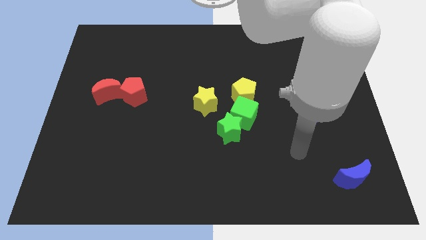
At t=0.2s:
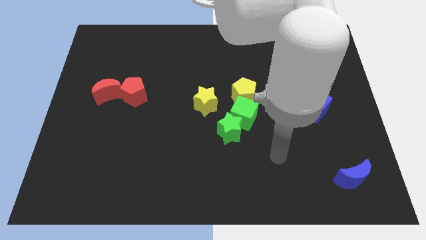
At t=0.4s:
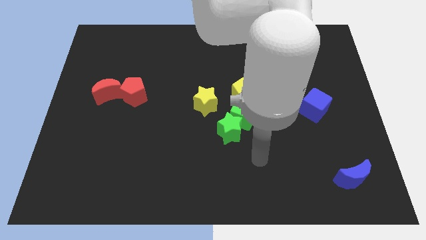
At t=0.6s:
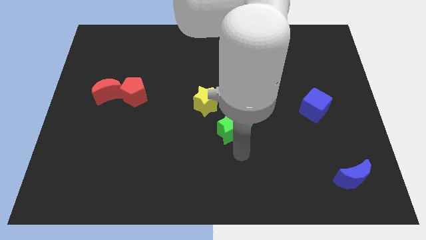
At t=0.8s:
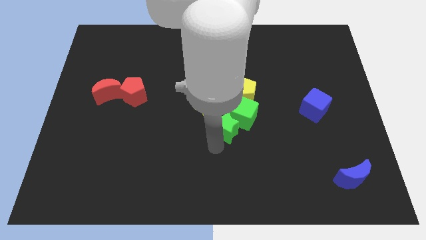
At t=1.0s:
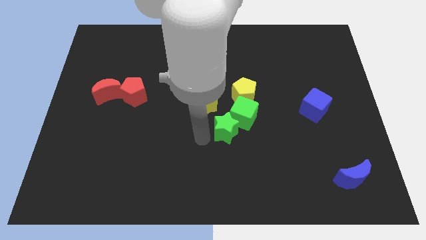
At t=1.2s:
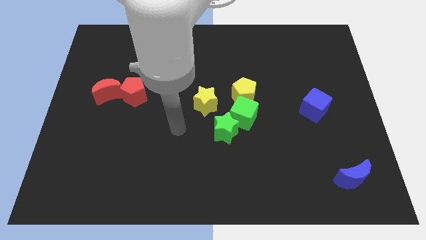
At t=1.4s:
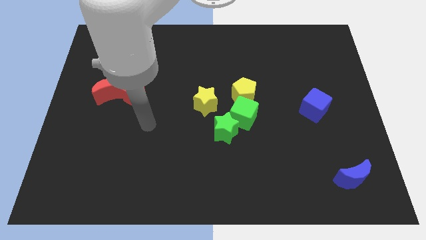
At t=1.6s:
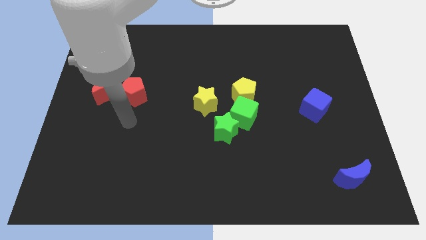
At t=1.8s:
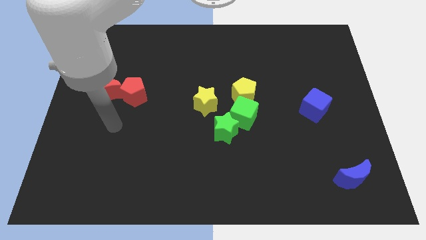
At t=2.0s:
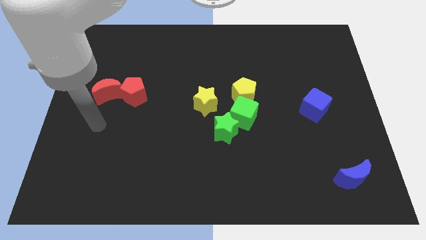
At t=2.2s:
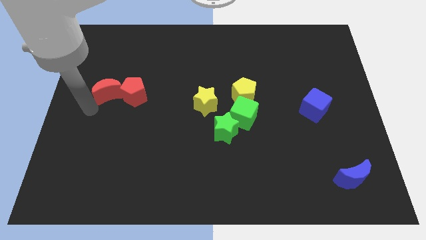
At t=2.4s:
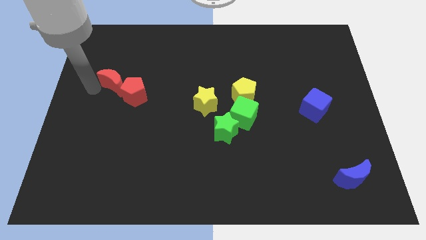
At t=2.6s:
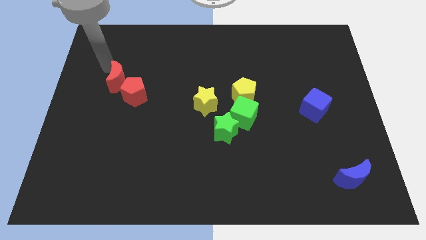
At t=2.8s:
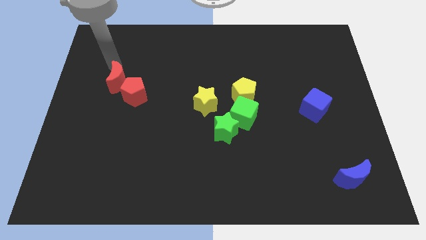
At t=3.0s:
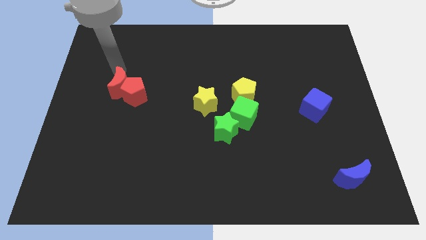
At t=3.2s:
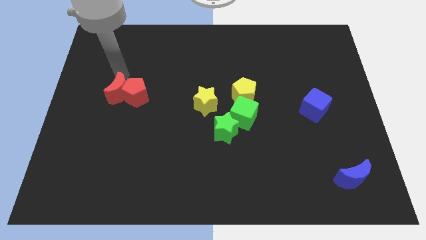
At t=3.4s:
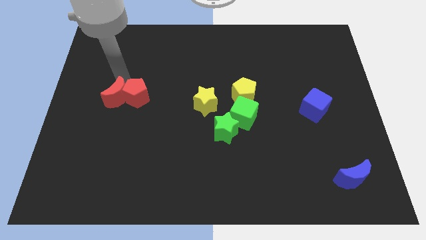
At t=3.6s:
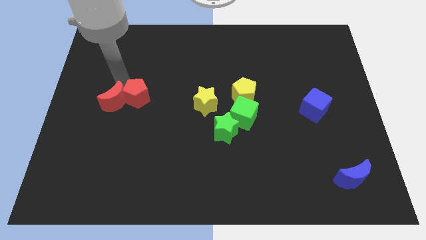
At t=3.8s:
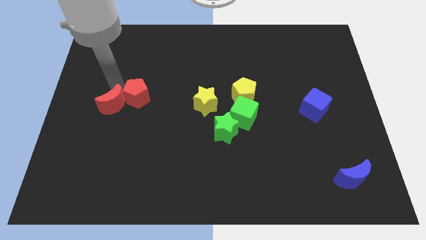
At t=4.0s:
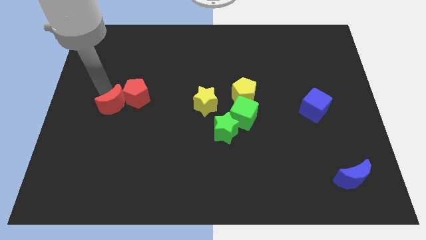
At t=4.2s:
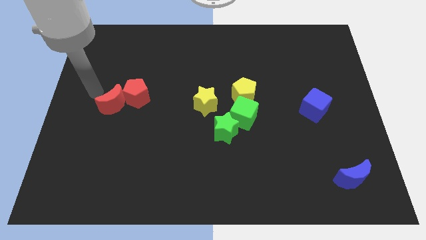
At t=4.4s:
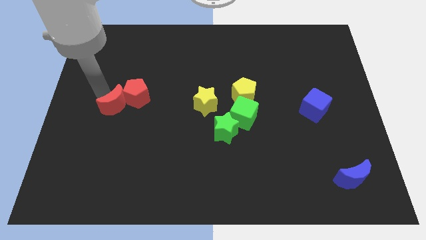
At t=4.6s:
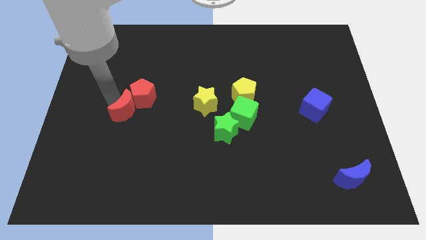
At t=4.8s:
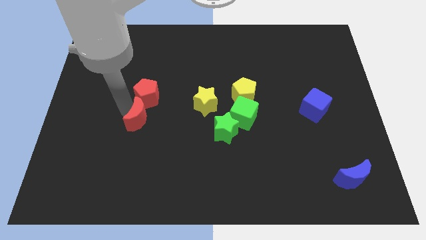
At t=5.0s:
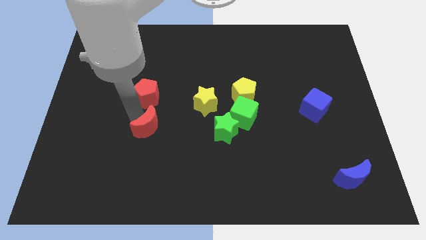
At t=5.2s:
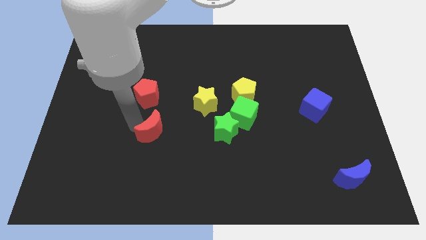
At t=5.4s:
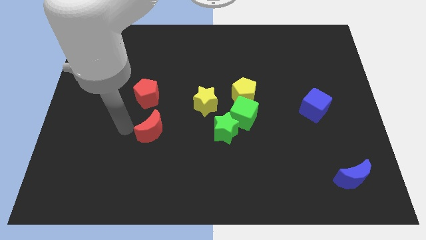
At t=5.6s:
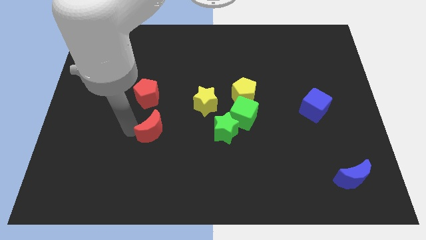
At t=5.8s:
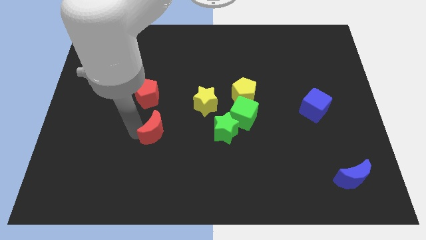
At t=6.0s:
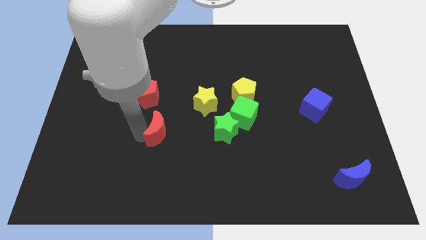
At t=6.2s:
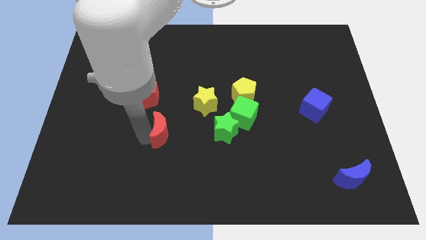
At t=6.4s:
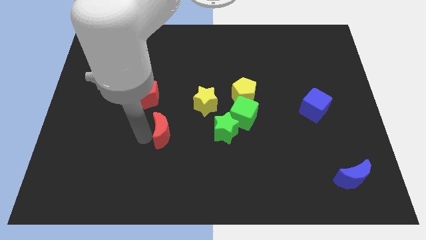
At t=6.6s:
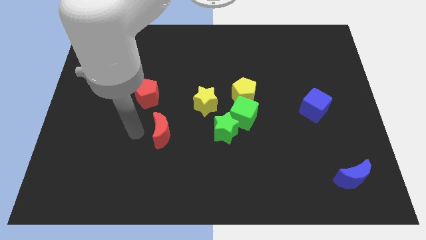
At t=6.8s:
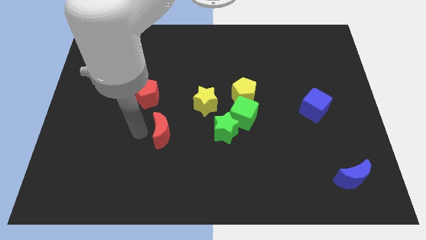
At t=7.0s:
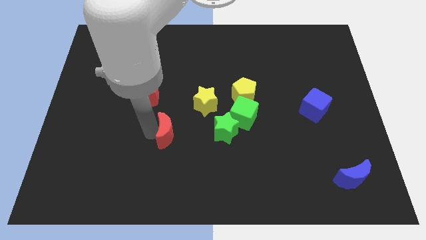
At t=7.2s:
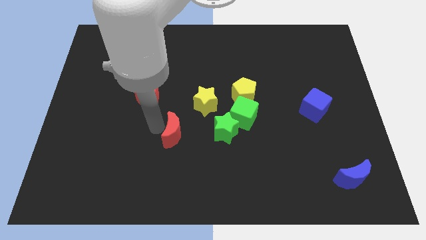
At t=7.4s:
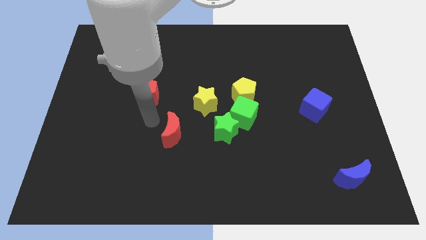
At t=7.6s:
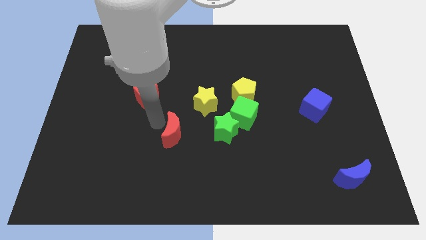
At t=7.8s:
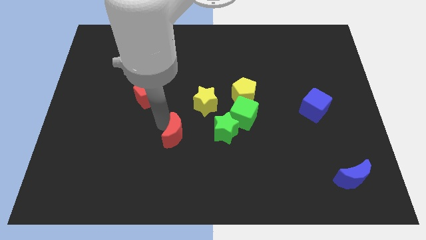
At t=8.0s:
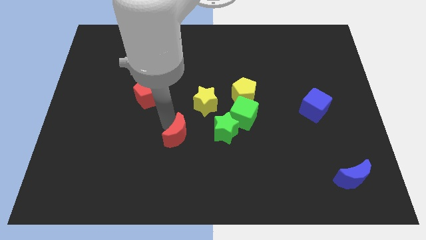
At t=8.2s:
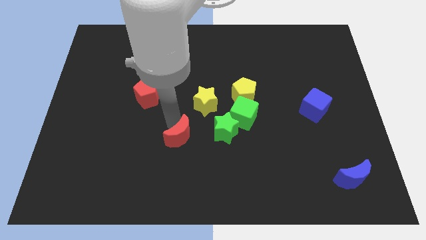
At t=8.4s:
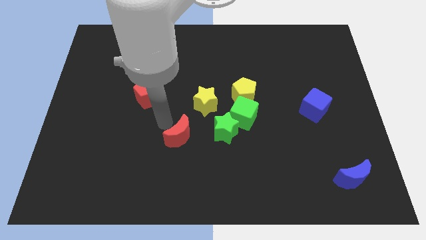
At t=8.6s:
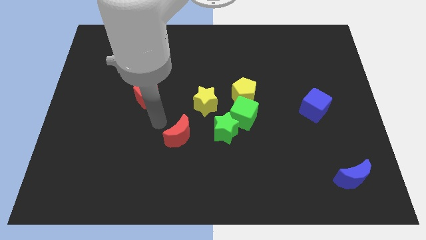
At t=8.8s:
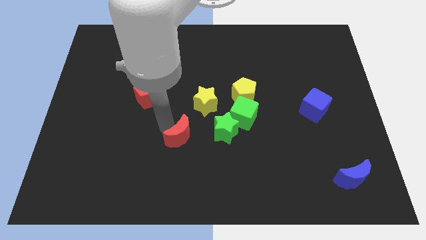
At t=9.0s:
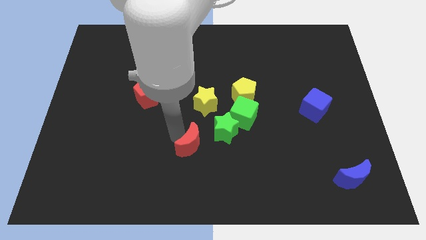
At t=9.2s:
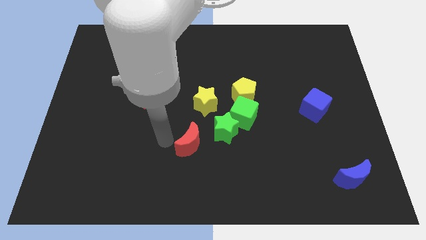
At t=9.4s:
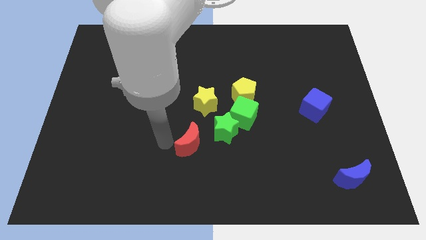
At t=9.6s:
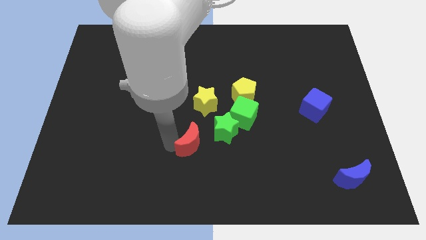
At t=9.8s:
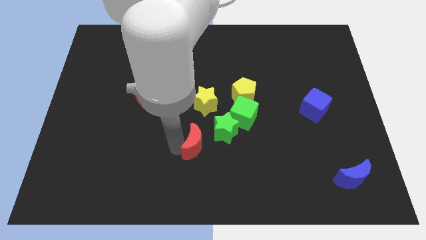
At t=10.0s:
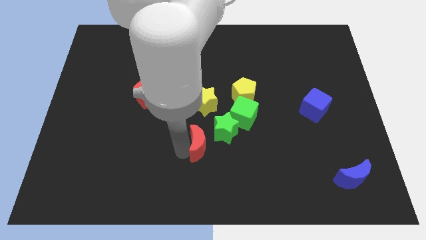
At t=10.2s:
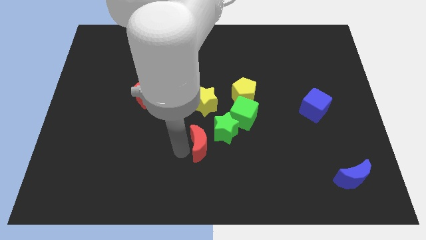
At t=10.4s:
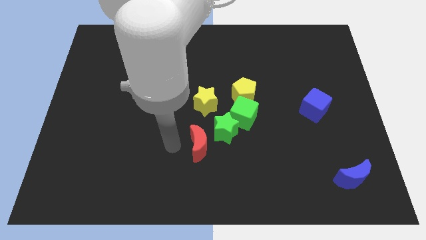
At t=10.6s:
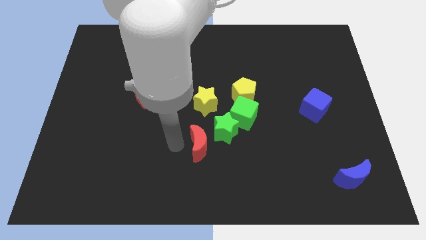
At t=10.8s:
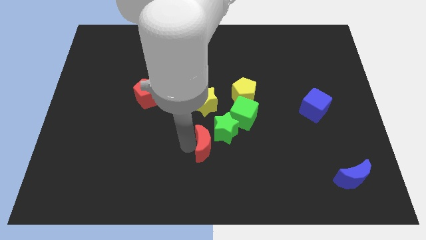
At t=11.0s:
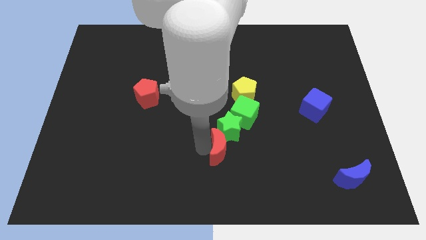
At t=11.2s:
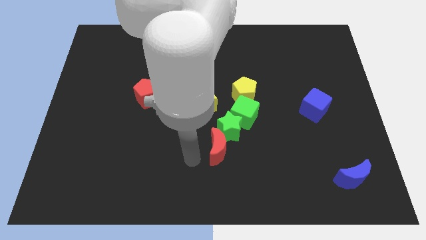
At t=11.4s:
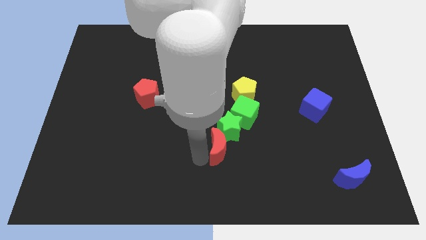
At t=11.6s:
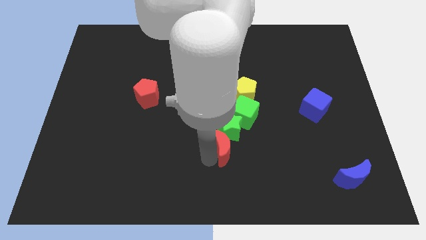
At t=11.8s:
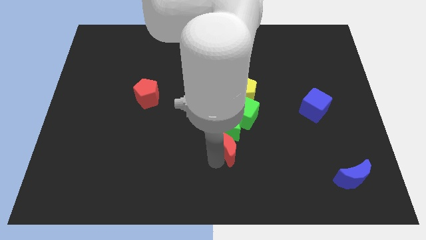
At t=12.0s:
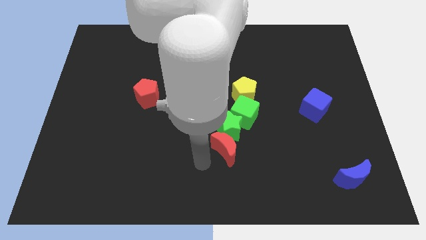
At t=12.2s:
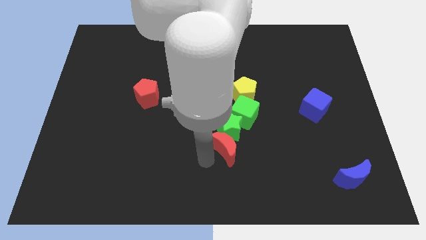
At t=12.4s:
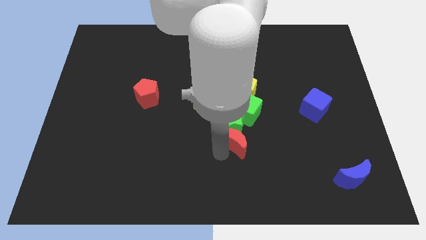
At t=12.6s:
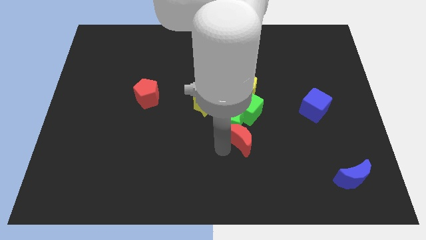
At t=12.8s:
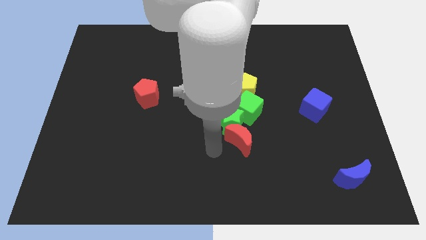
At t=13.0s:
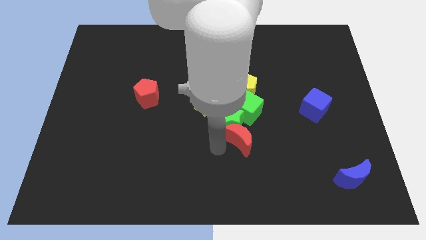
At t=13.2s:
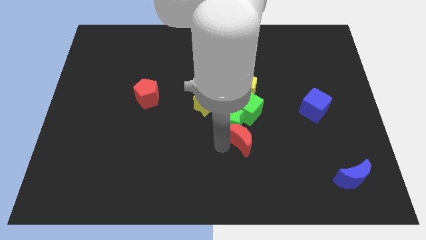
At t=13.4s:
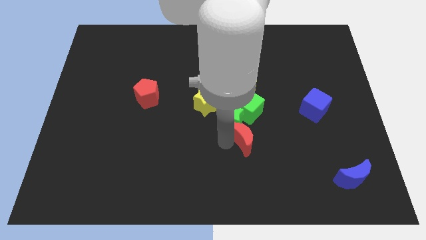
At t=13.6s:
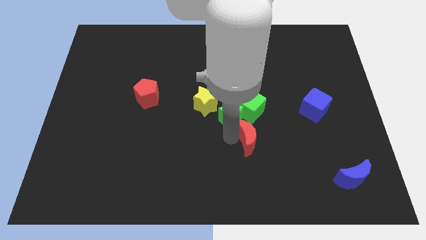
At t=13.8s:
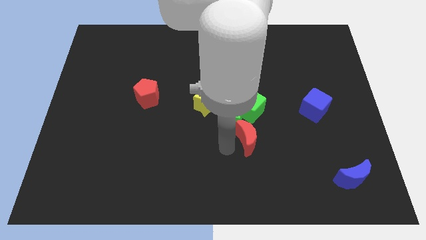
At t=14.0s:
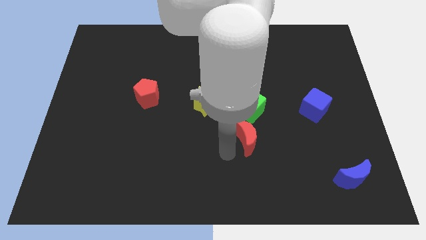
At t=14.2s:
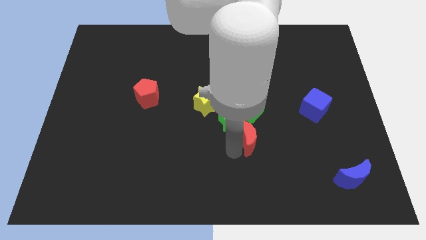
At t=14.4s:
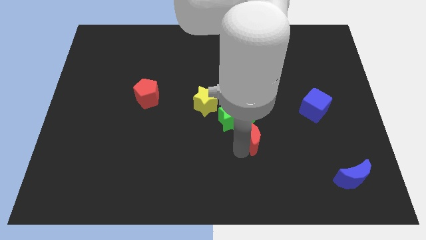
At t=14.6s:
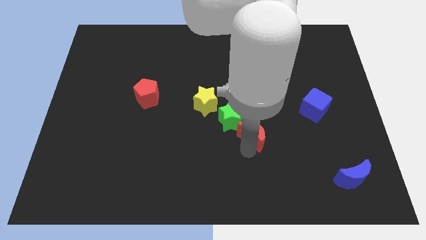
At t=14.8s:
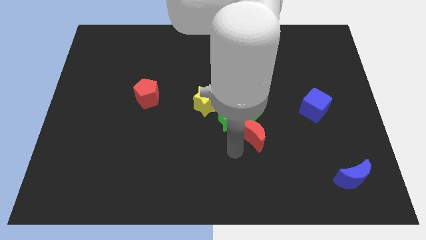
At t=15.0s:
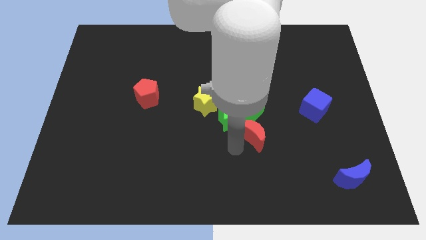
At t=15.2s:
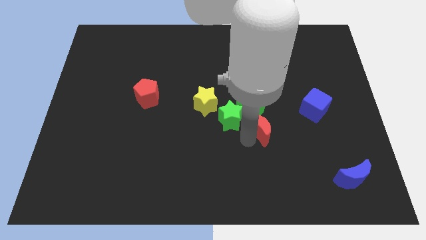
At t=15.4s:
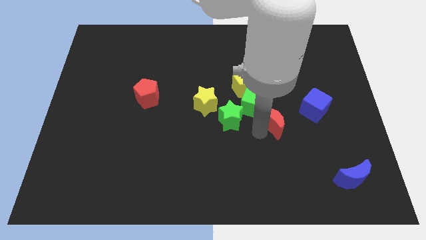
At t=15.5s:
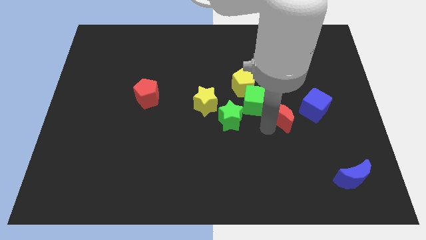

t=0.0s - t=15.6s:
put the red moon right of the green cube

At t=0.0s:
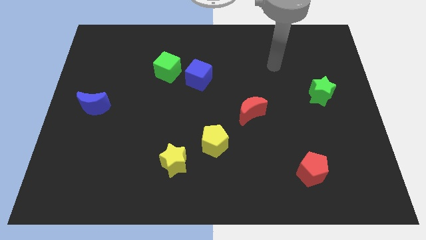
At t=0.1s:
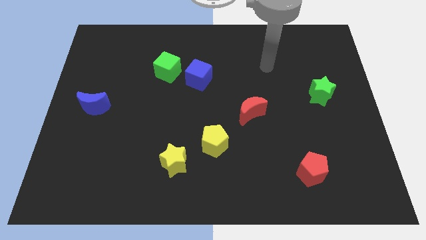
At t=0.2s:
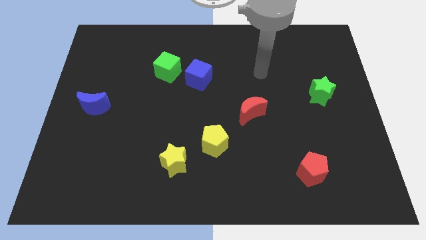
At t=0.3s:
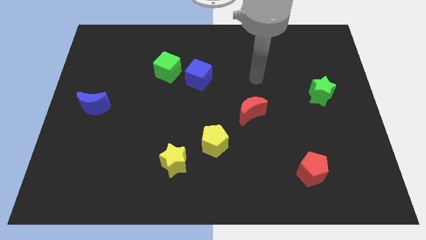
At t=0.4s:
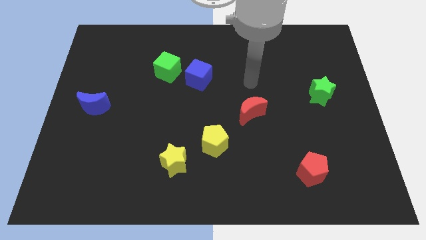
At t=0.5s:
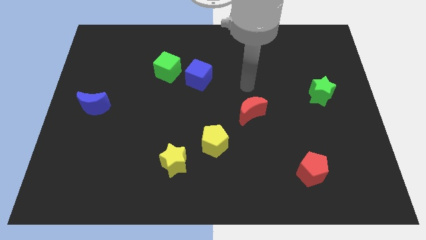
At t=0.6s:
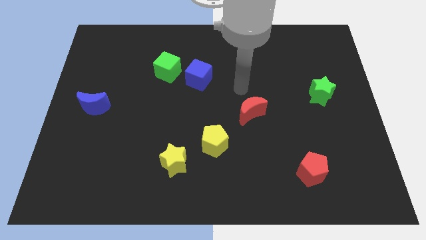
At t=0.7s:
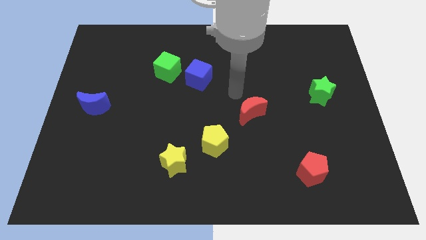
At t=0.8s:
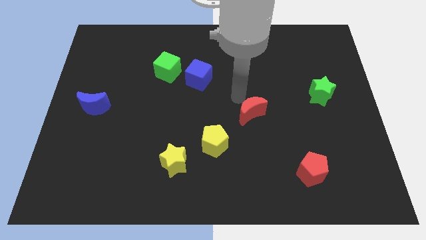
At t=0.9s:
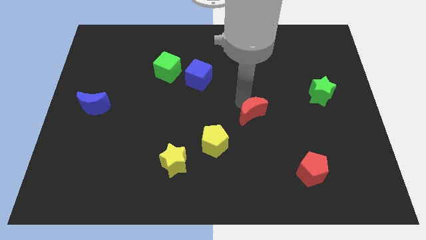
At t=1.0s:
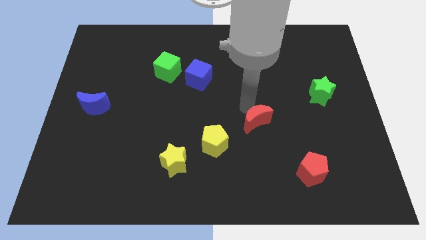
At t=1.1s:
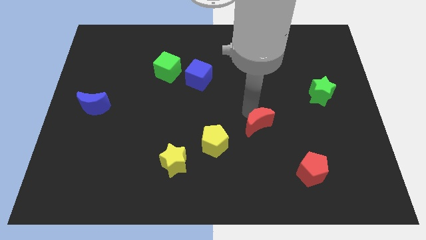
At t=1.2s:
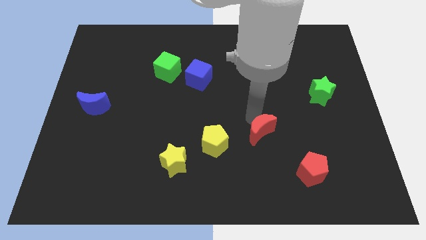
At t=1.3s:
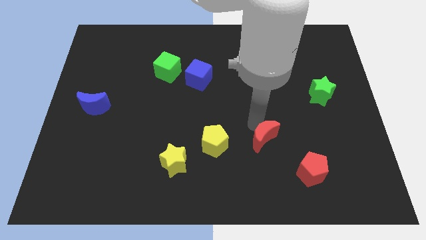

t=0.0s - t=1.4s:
move the red moon to the top left of the red pentagon
